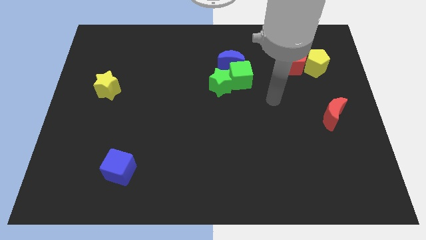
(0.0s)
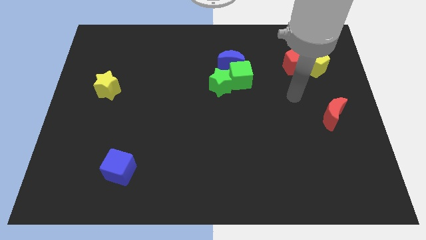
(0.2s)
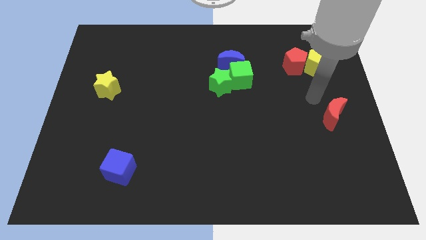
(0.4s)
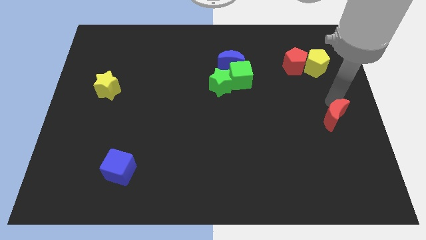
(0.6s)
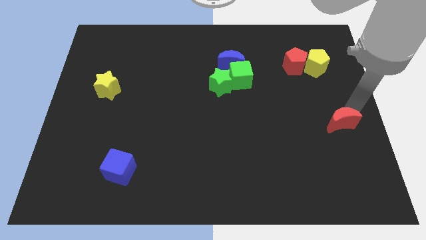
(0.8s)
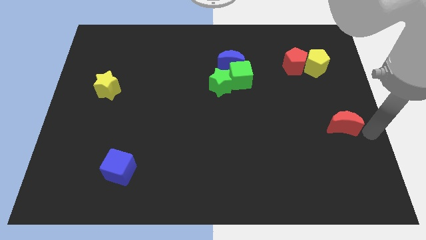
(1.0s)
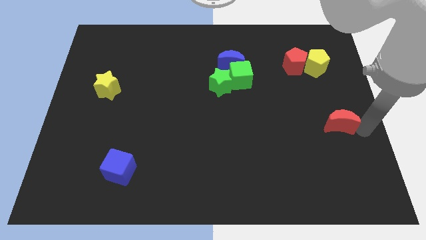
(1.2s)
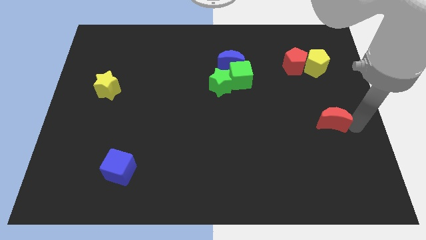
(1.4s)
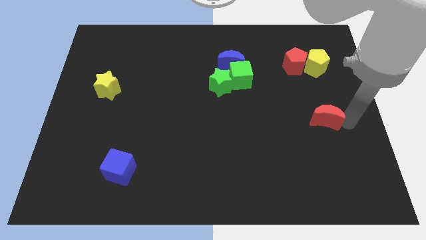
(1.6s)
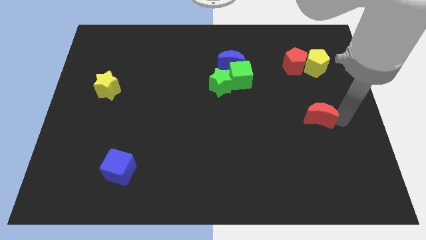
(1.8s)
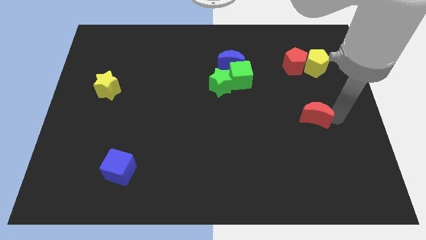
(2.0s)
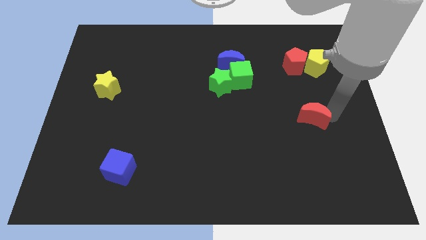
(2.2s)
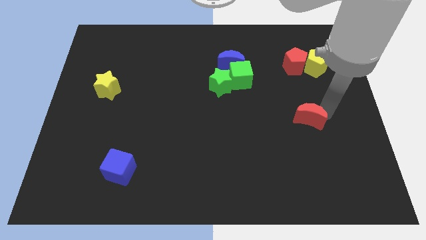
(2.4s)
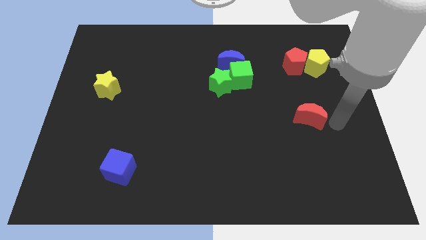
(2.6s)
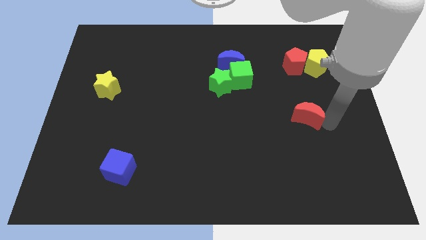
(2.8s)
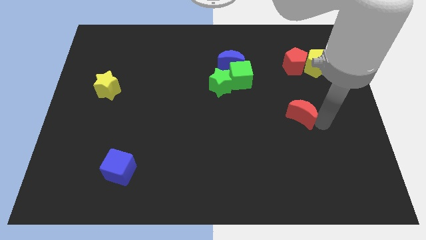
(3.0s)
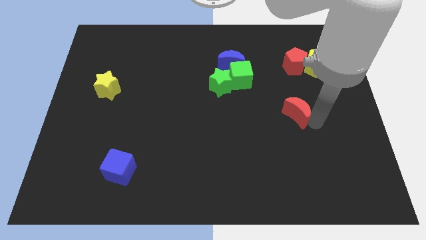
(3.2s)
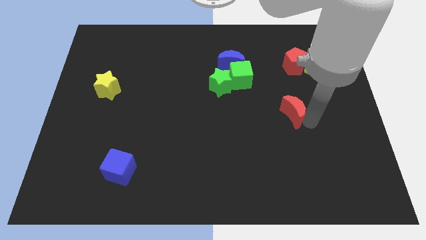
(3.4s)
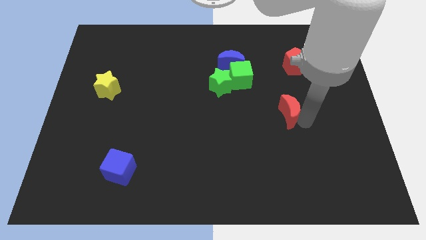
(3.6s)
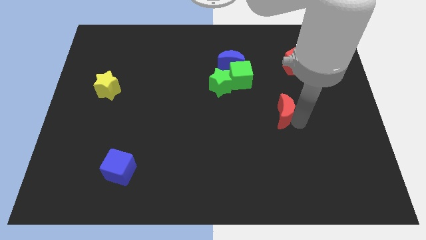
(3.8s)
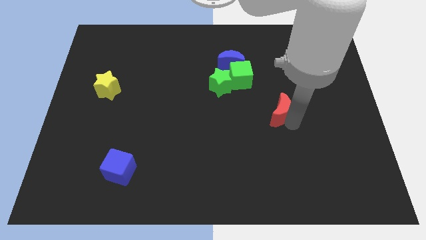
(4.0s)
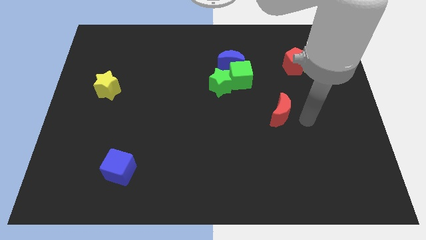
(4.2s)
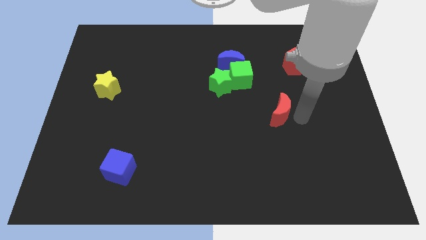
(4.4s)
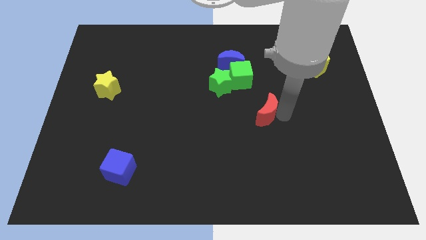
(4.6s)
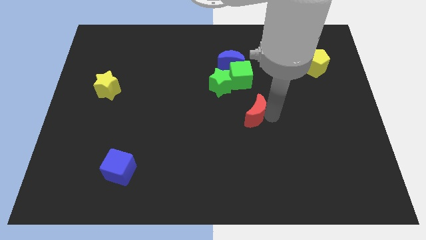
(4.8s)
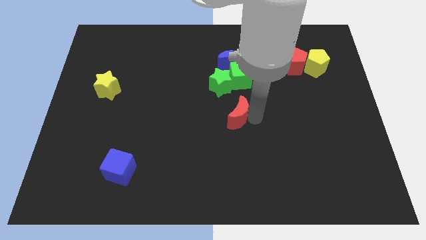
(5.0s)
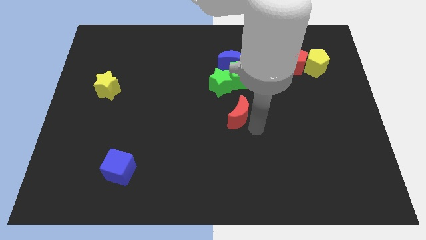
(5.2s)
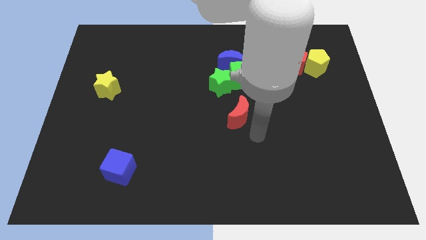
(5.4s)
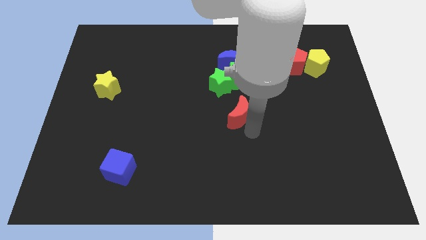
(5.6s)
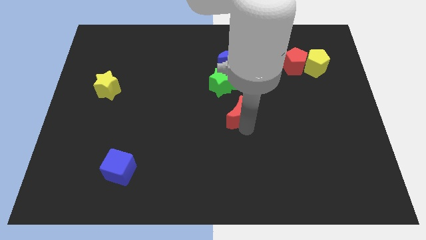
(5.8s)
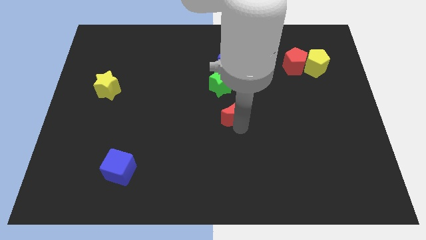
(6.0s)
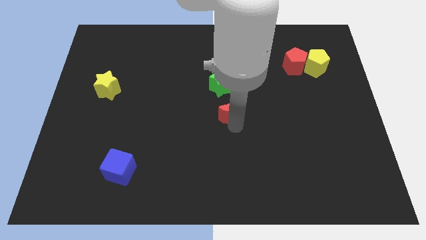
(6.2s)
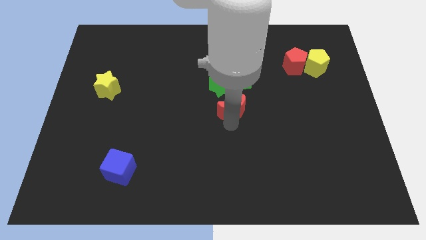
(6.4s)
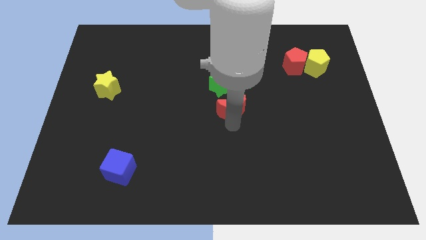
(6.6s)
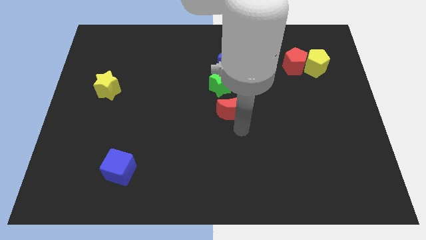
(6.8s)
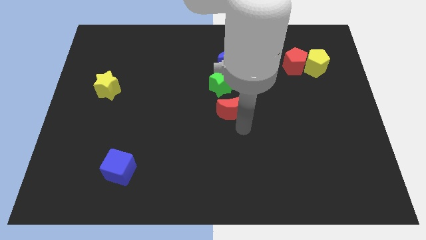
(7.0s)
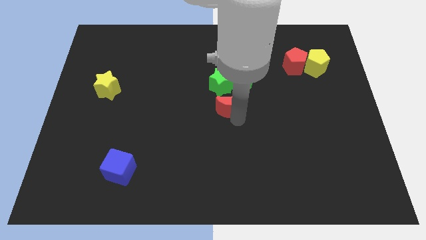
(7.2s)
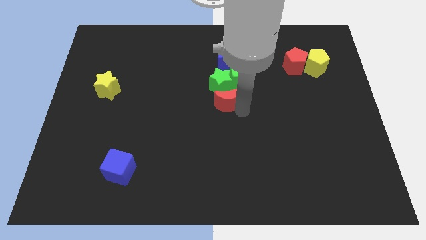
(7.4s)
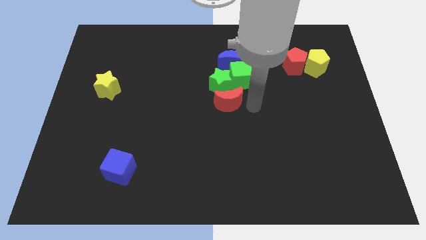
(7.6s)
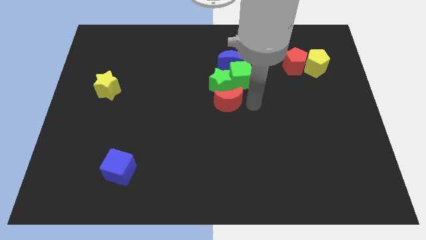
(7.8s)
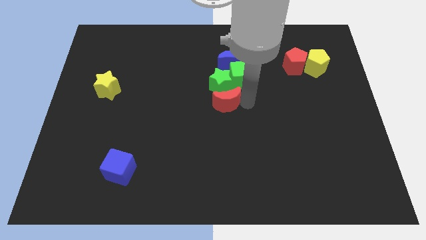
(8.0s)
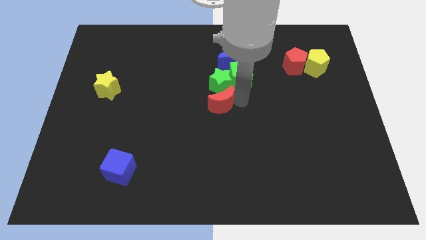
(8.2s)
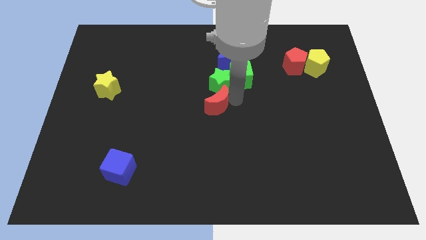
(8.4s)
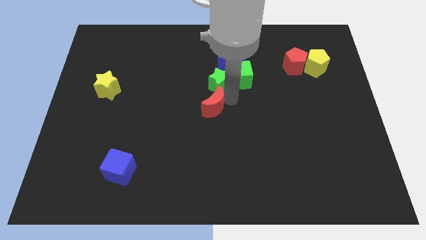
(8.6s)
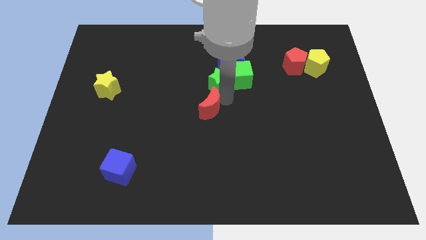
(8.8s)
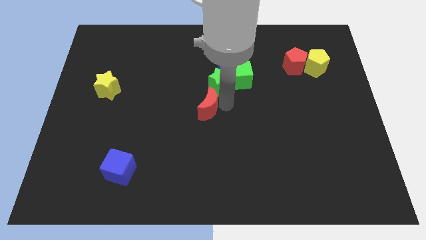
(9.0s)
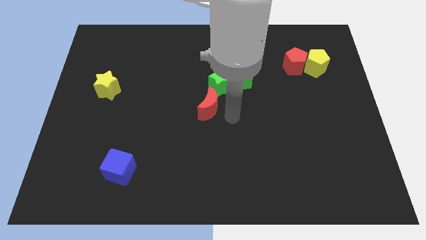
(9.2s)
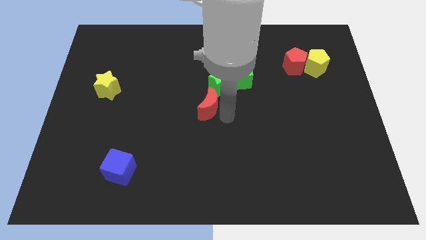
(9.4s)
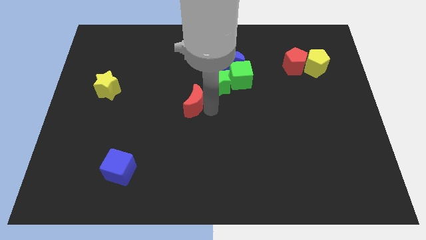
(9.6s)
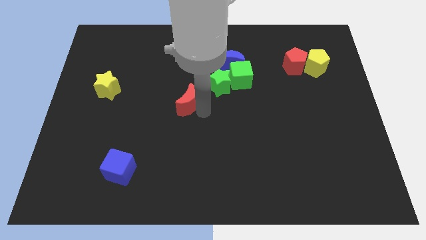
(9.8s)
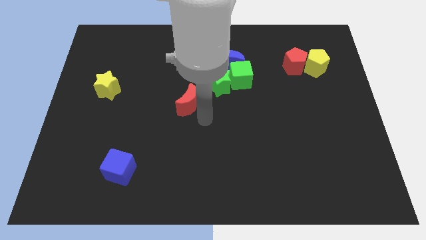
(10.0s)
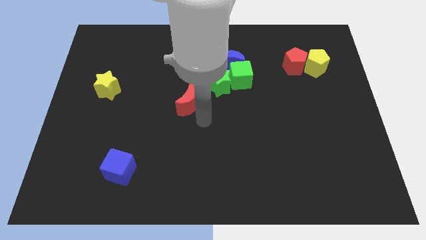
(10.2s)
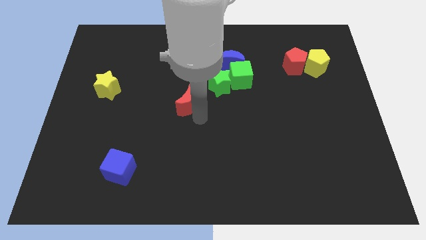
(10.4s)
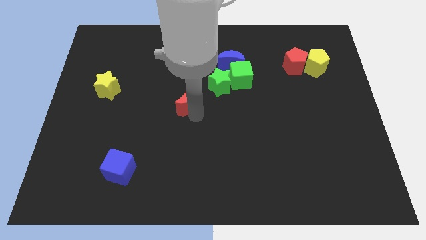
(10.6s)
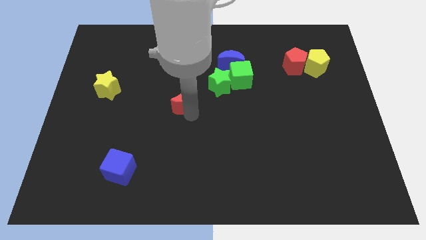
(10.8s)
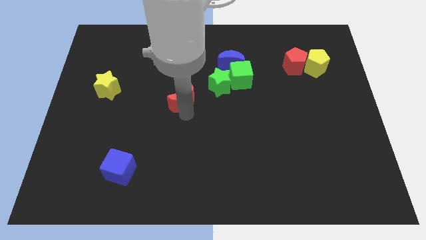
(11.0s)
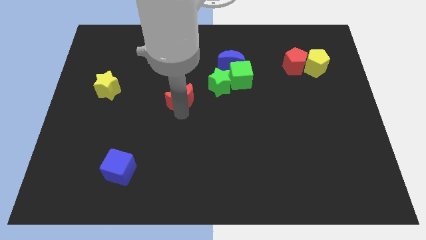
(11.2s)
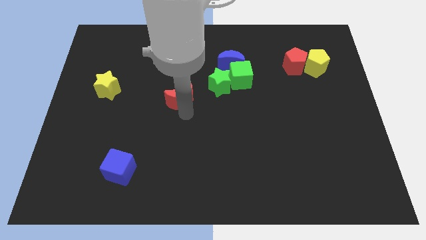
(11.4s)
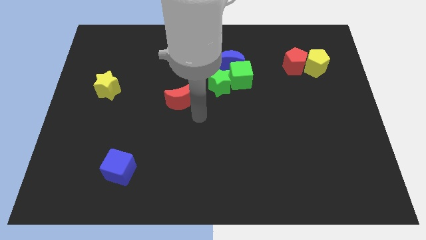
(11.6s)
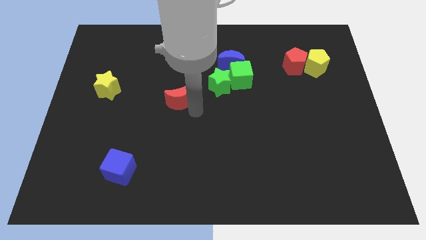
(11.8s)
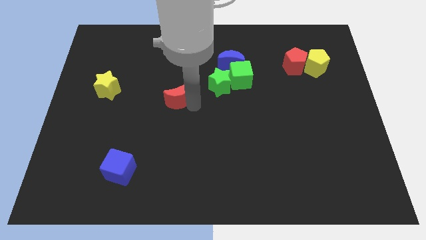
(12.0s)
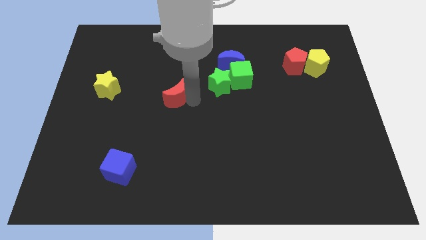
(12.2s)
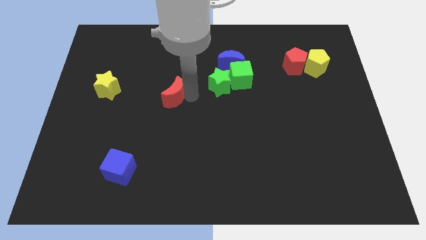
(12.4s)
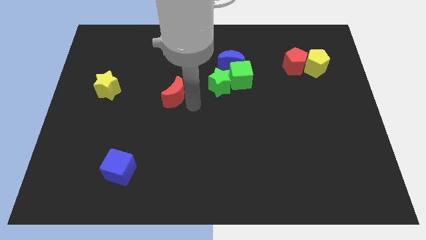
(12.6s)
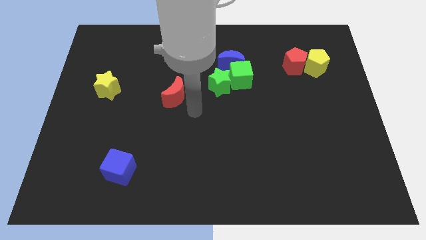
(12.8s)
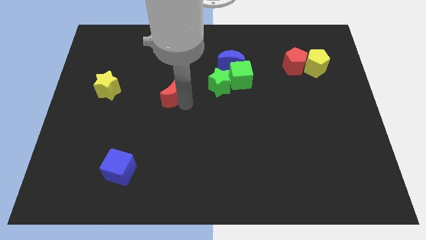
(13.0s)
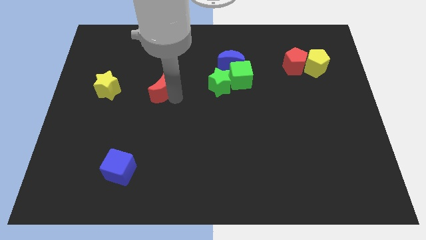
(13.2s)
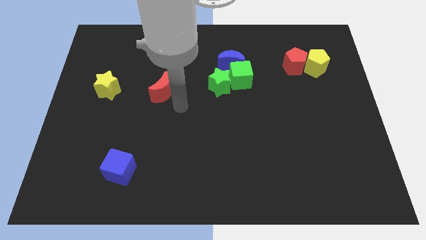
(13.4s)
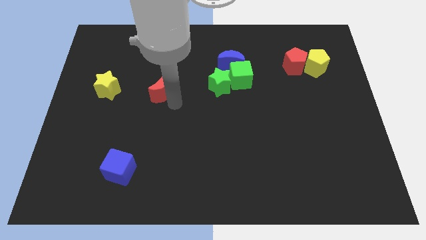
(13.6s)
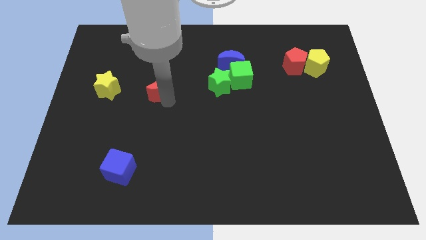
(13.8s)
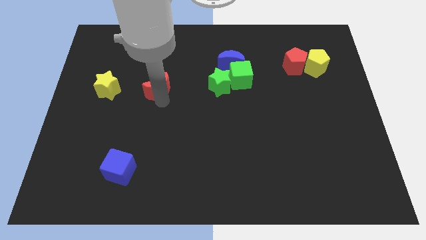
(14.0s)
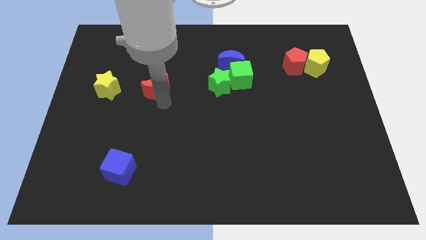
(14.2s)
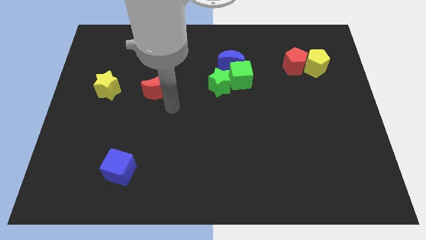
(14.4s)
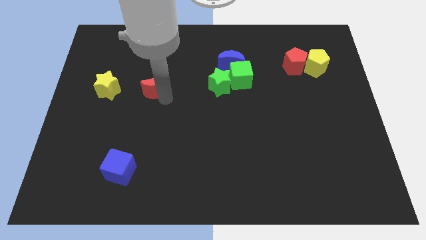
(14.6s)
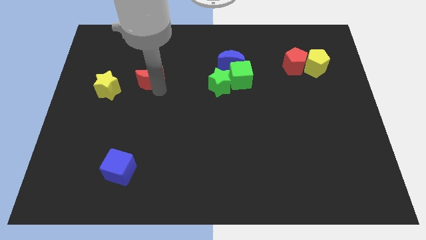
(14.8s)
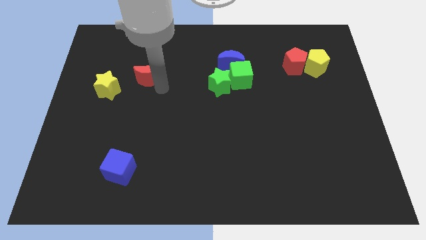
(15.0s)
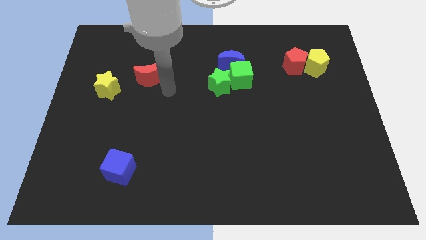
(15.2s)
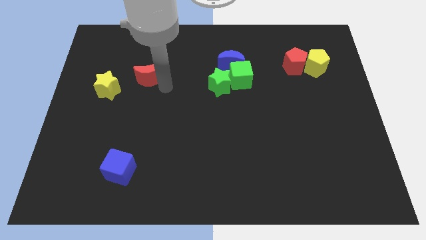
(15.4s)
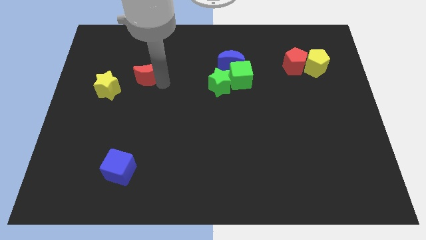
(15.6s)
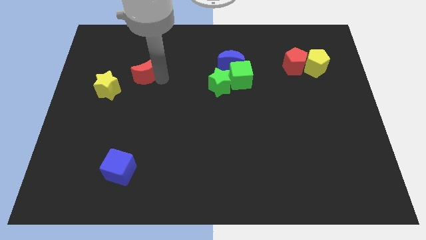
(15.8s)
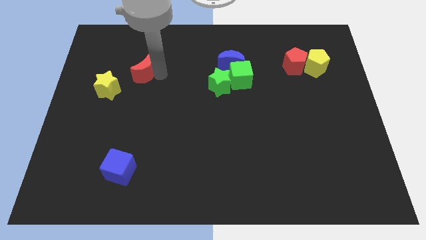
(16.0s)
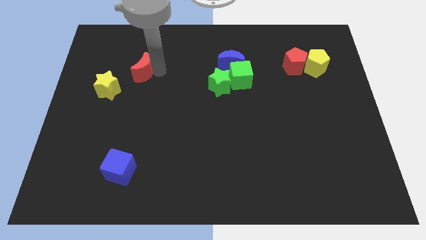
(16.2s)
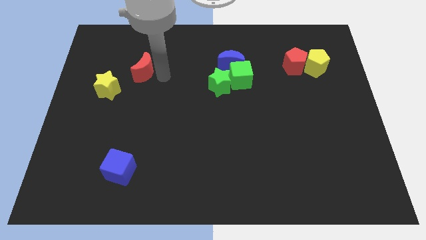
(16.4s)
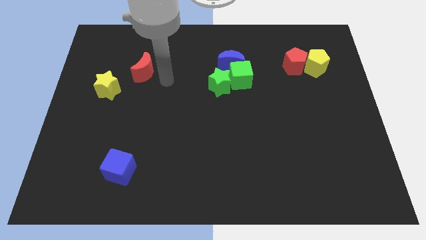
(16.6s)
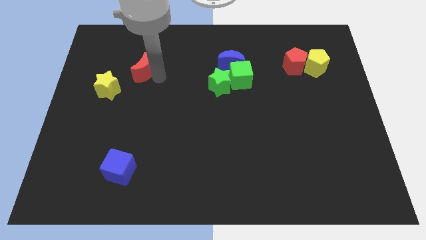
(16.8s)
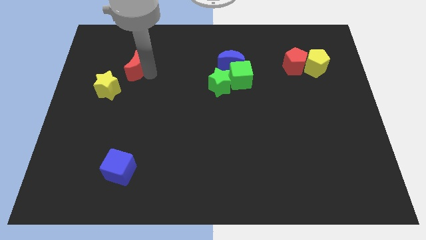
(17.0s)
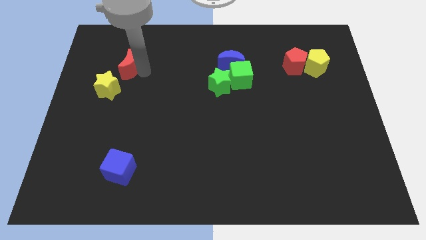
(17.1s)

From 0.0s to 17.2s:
slide the red moon above the yellow star
